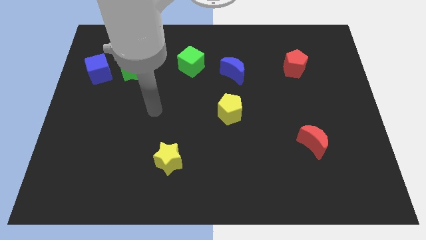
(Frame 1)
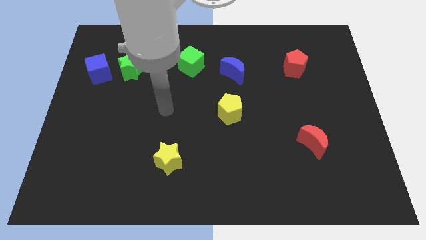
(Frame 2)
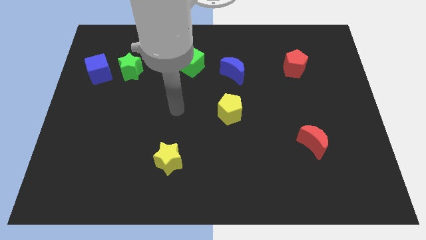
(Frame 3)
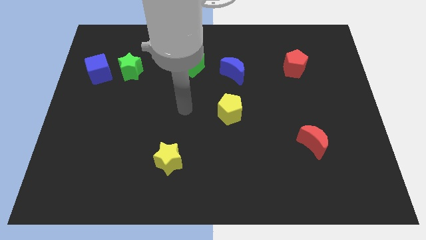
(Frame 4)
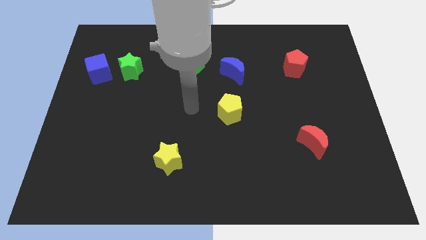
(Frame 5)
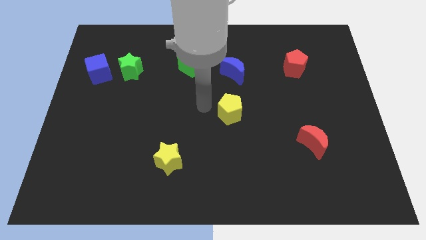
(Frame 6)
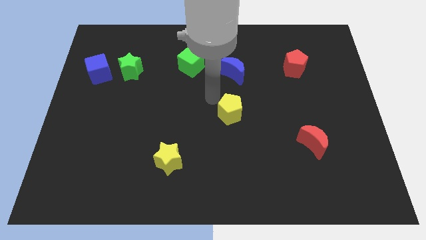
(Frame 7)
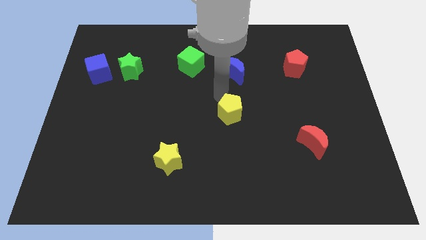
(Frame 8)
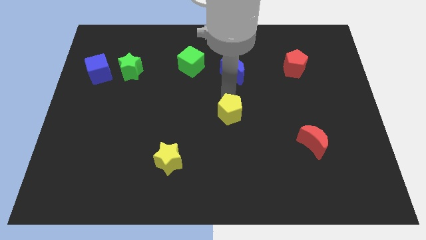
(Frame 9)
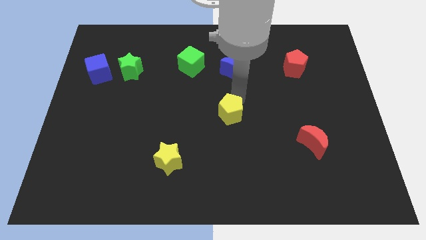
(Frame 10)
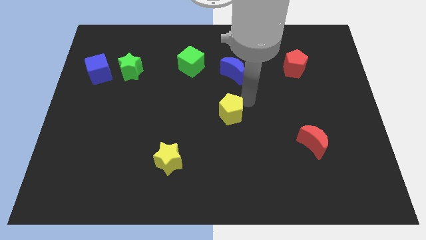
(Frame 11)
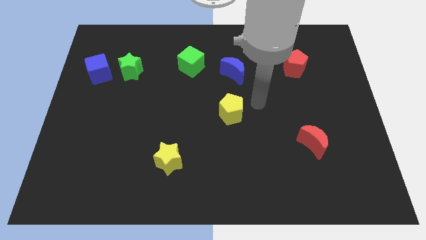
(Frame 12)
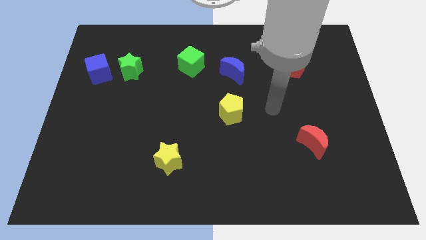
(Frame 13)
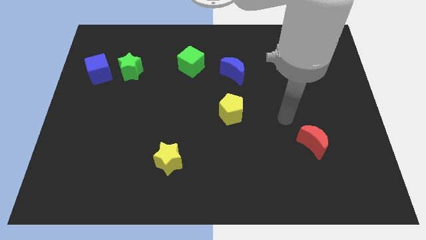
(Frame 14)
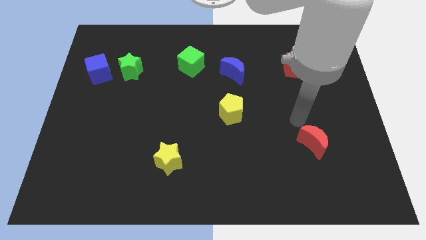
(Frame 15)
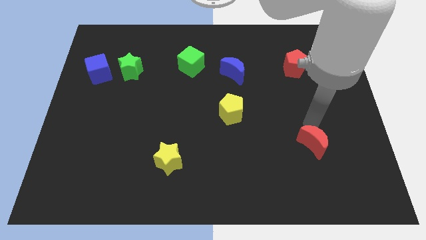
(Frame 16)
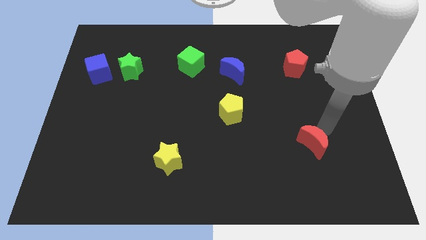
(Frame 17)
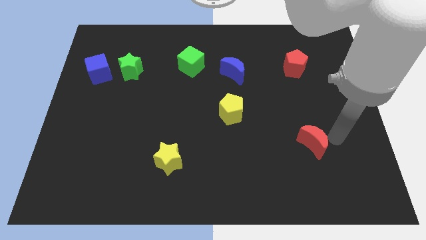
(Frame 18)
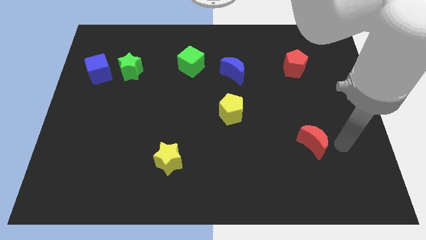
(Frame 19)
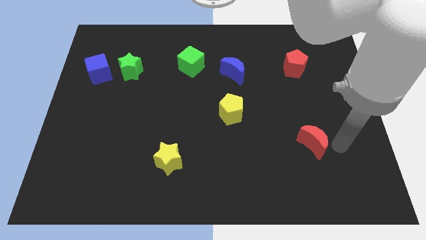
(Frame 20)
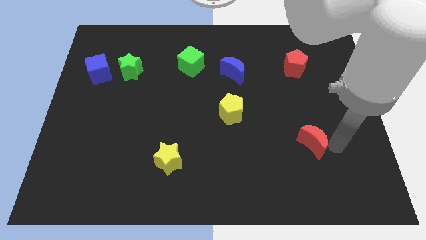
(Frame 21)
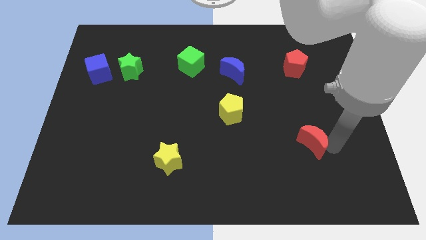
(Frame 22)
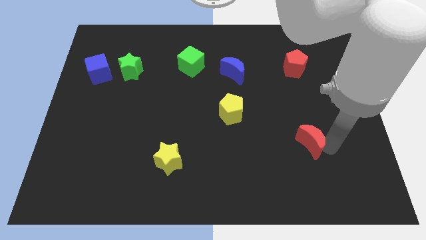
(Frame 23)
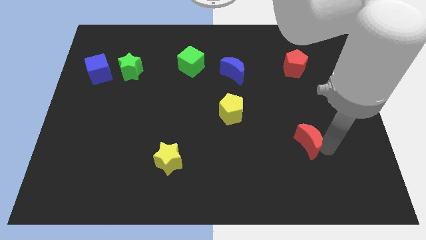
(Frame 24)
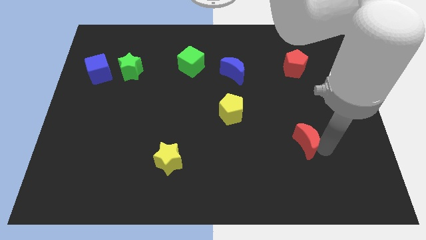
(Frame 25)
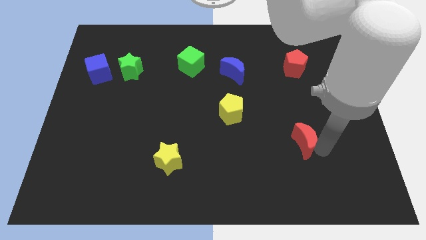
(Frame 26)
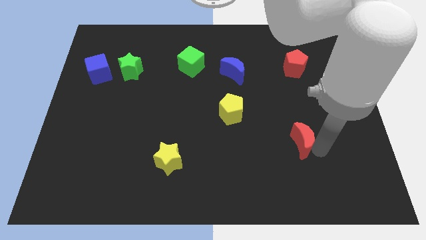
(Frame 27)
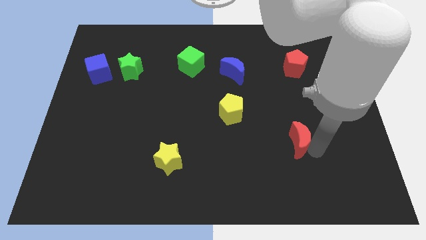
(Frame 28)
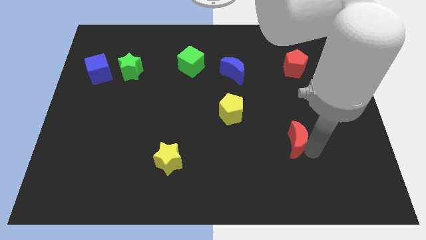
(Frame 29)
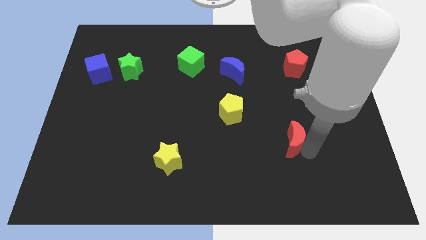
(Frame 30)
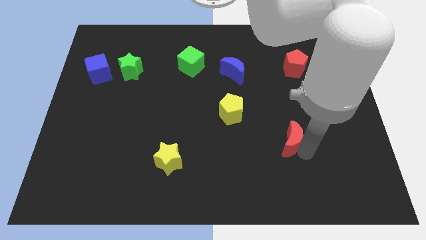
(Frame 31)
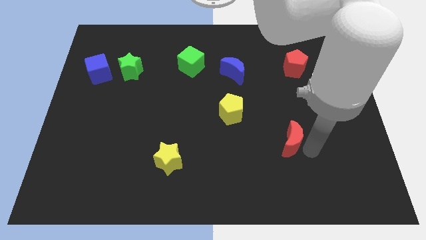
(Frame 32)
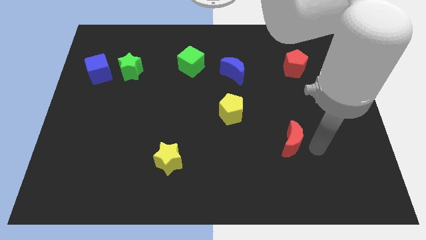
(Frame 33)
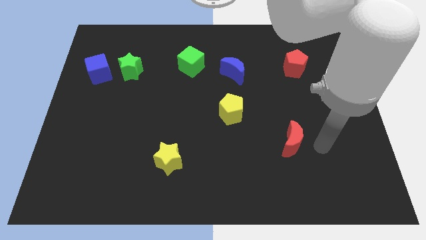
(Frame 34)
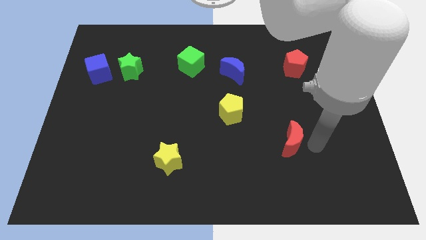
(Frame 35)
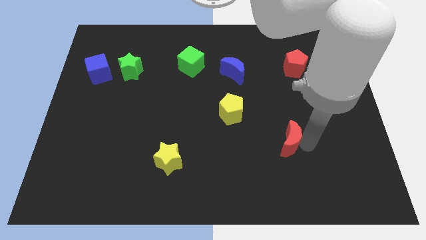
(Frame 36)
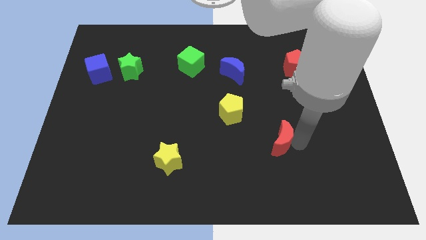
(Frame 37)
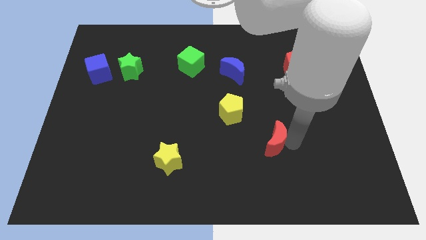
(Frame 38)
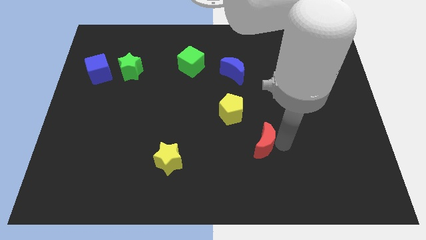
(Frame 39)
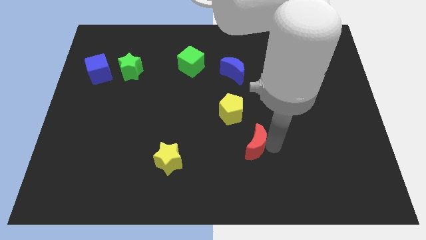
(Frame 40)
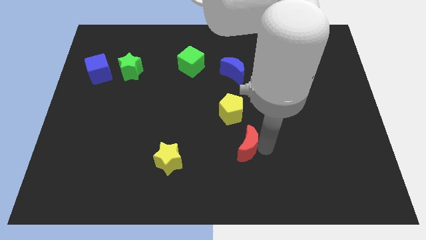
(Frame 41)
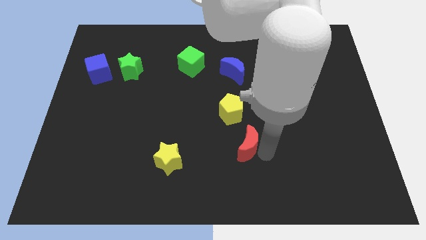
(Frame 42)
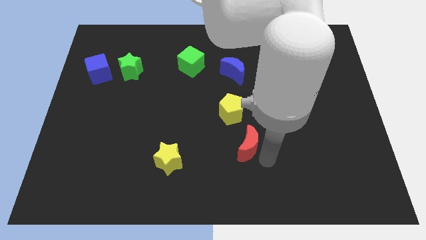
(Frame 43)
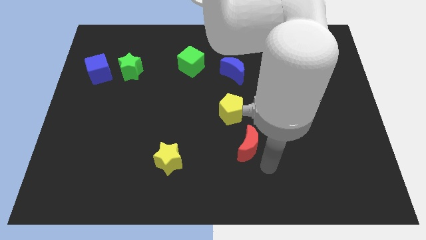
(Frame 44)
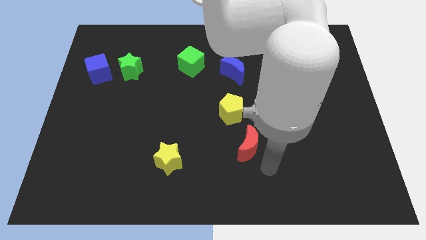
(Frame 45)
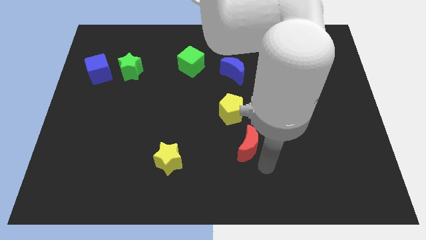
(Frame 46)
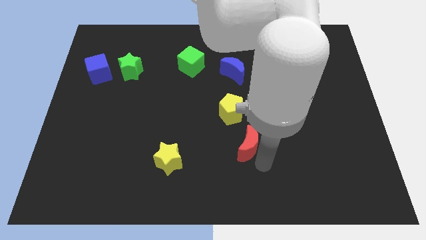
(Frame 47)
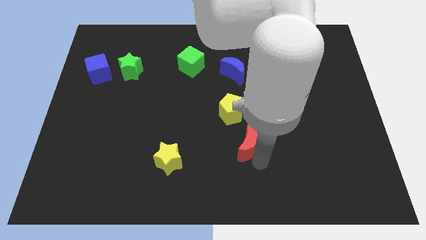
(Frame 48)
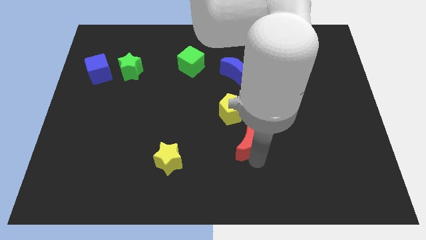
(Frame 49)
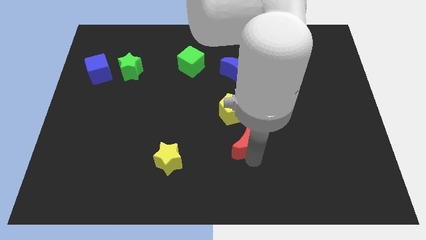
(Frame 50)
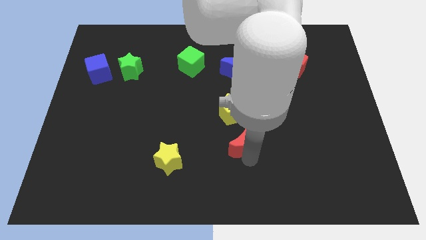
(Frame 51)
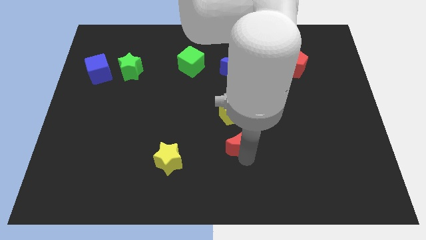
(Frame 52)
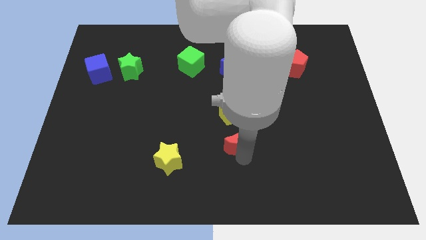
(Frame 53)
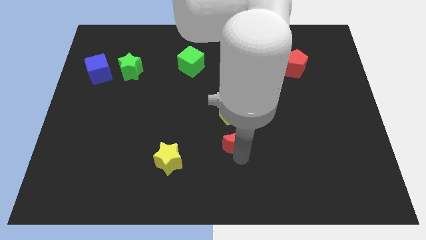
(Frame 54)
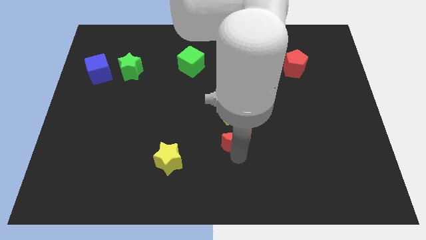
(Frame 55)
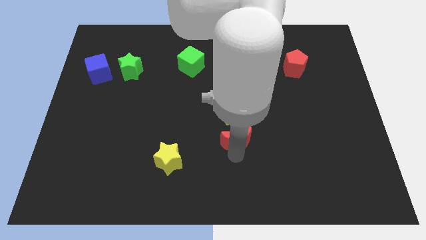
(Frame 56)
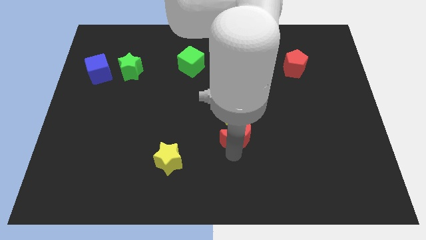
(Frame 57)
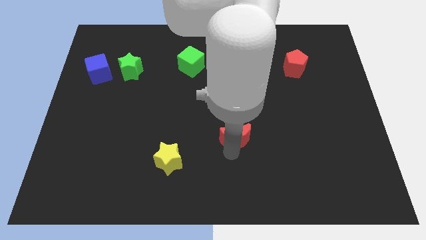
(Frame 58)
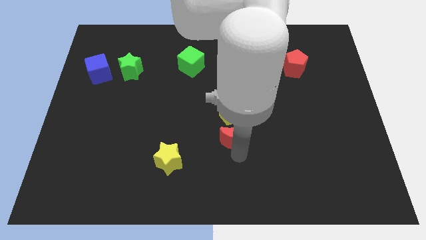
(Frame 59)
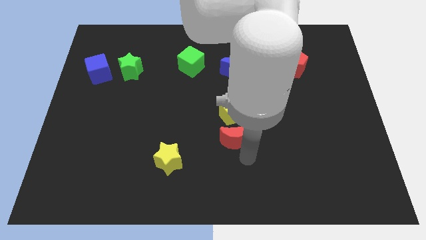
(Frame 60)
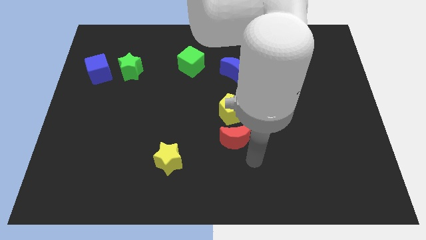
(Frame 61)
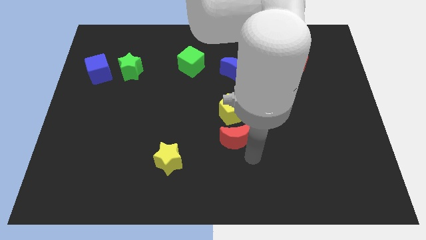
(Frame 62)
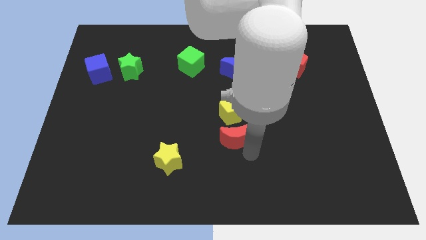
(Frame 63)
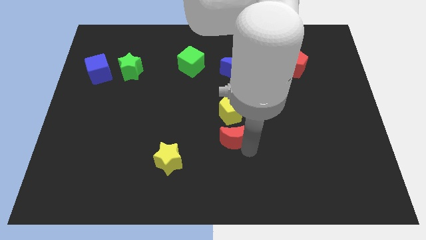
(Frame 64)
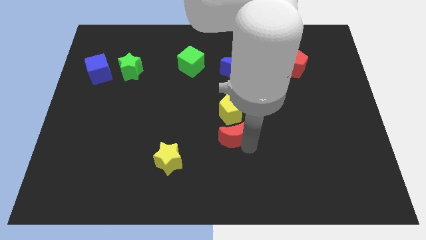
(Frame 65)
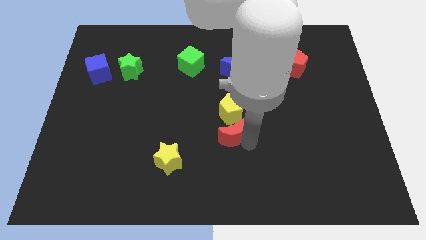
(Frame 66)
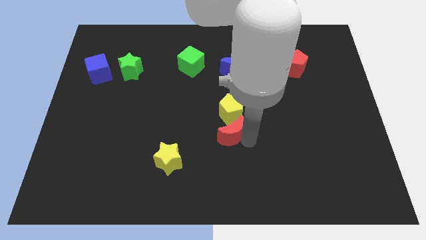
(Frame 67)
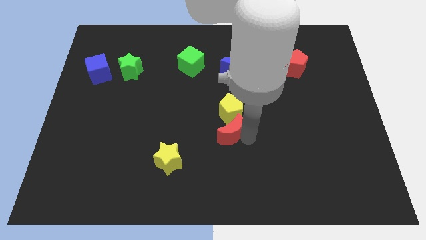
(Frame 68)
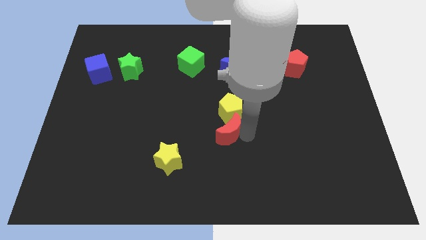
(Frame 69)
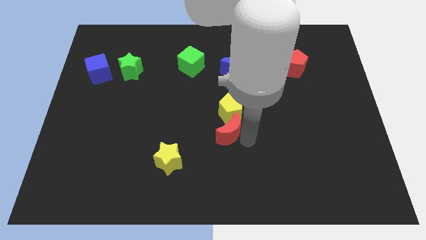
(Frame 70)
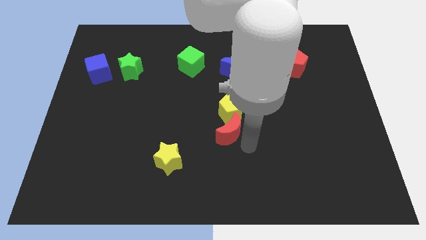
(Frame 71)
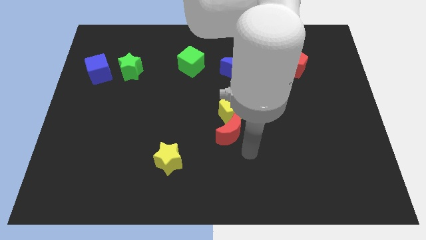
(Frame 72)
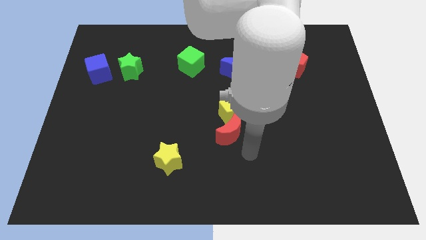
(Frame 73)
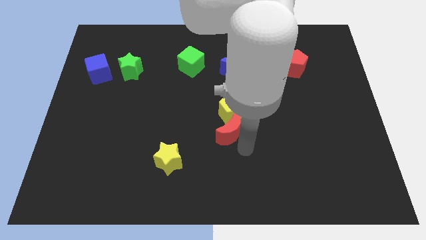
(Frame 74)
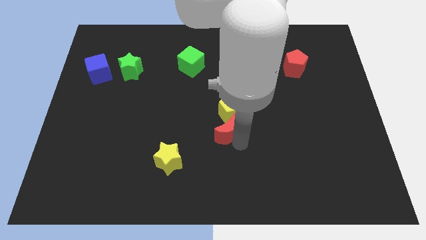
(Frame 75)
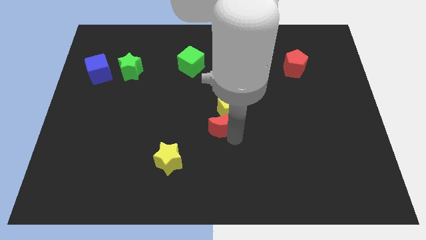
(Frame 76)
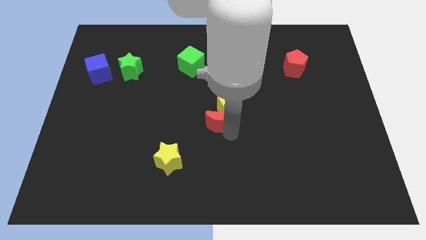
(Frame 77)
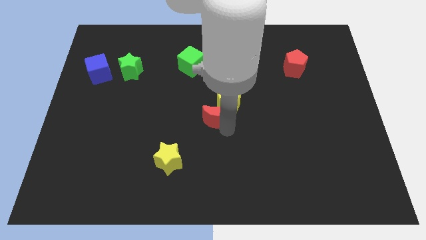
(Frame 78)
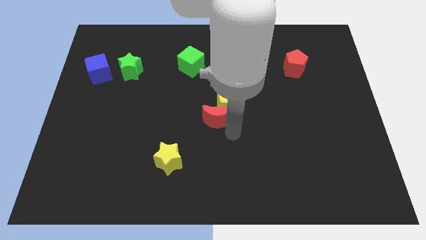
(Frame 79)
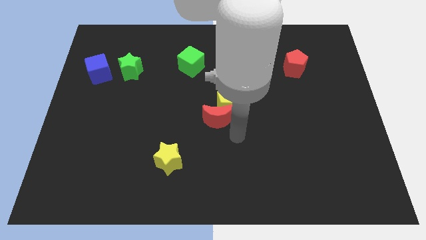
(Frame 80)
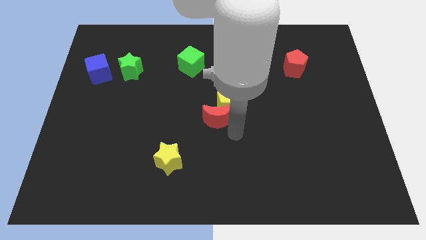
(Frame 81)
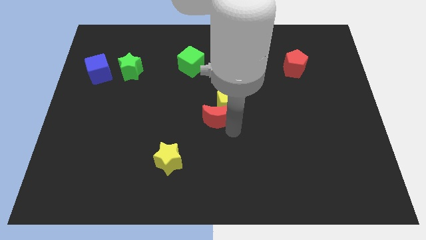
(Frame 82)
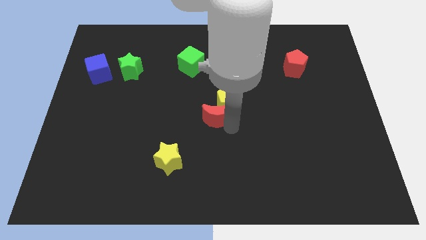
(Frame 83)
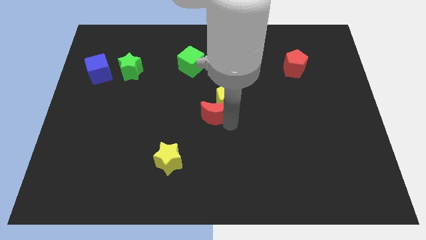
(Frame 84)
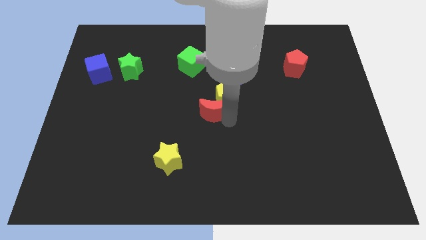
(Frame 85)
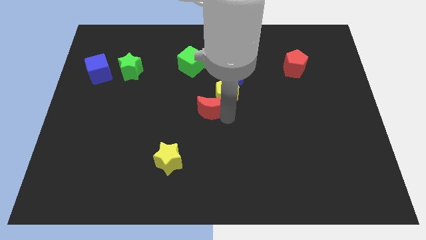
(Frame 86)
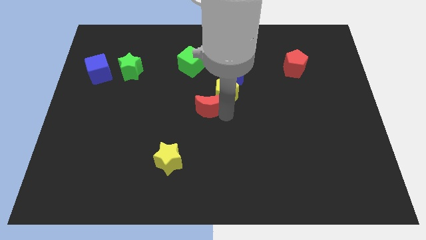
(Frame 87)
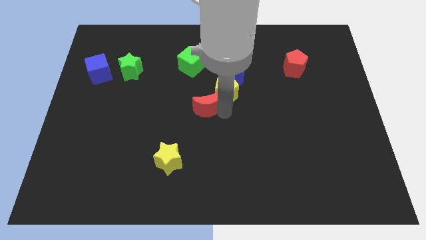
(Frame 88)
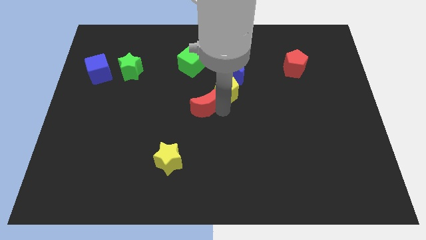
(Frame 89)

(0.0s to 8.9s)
push the red moon to the bottom side of the green cube
